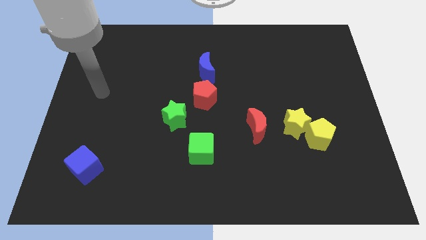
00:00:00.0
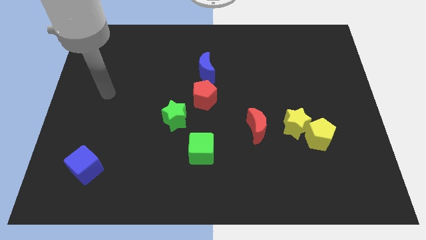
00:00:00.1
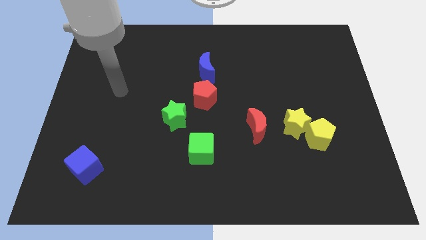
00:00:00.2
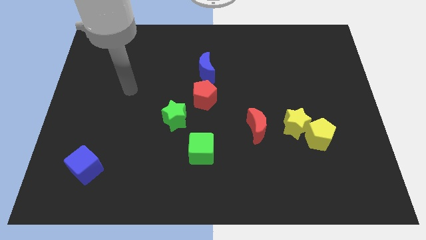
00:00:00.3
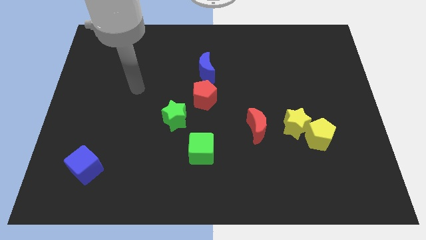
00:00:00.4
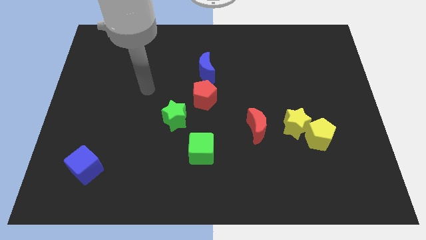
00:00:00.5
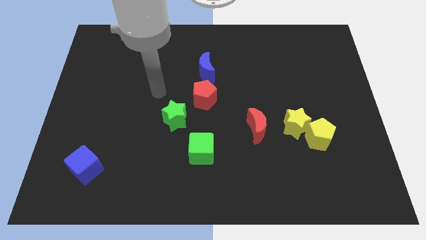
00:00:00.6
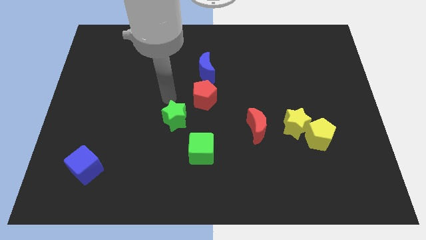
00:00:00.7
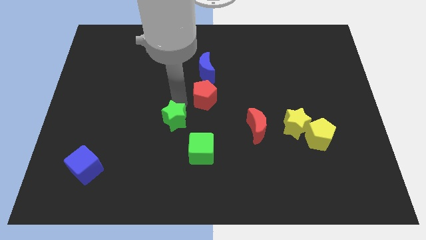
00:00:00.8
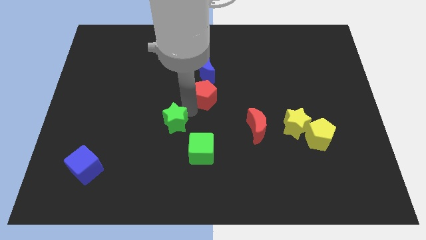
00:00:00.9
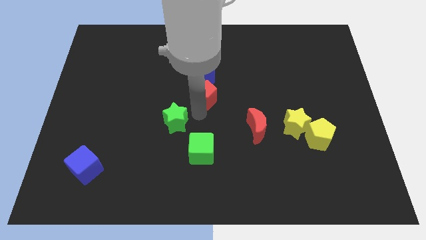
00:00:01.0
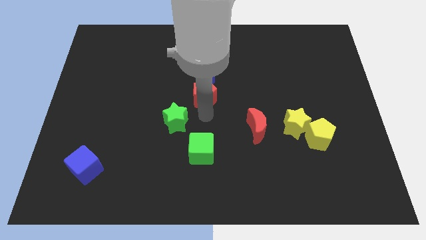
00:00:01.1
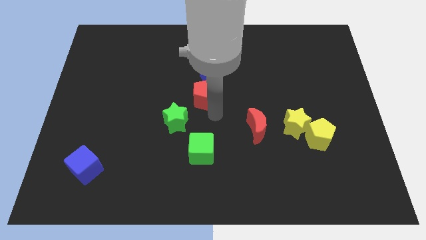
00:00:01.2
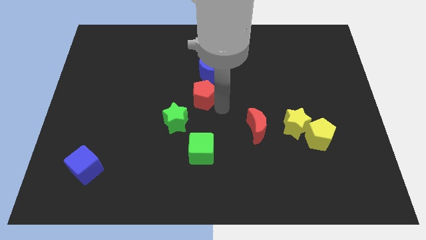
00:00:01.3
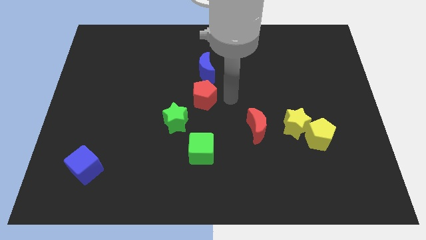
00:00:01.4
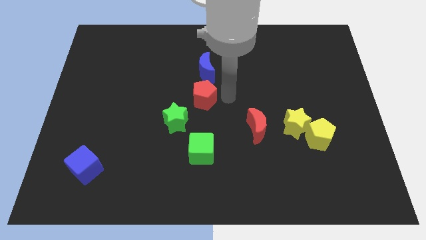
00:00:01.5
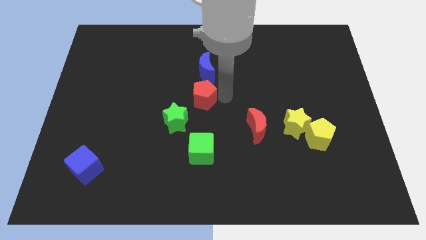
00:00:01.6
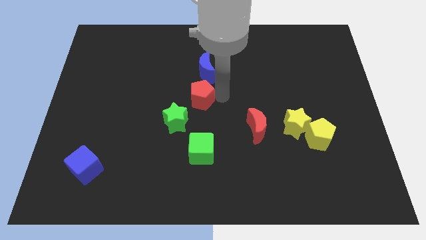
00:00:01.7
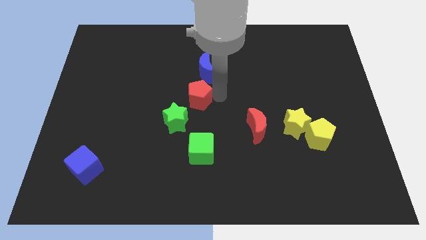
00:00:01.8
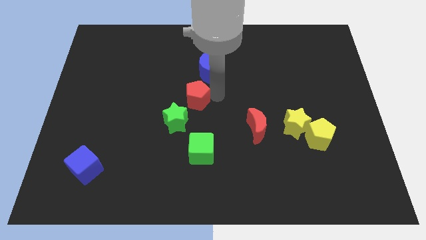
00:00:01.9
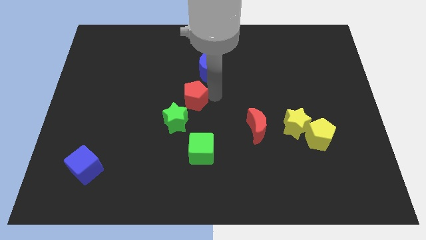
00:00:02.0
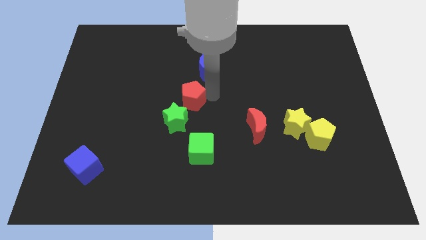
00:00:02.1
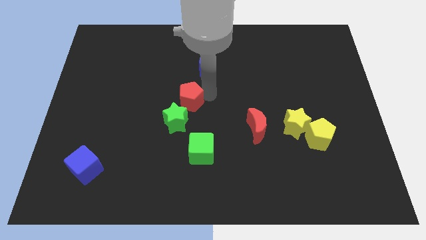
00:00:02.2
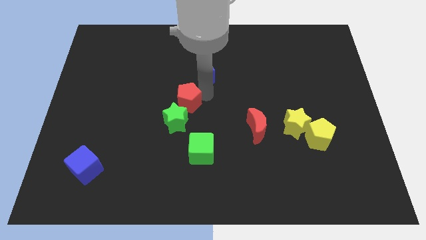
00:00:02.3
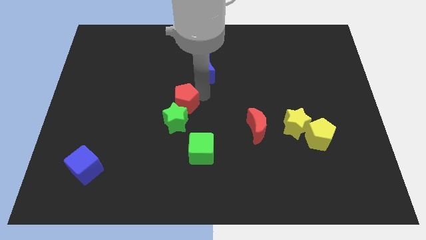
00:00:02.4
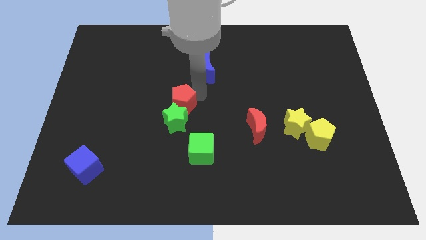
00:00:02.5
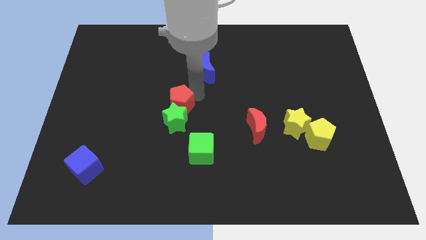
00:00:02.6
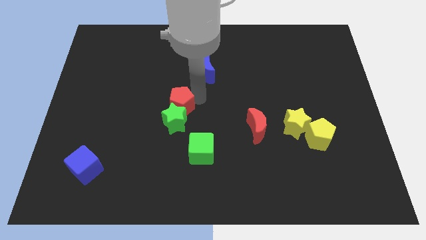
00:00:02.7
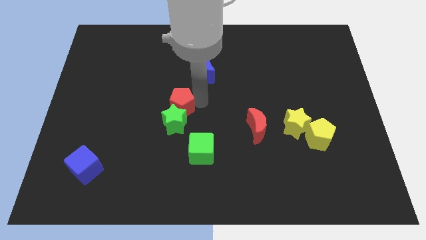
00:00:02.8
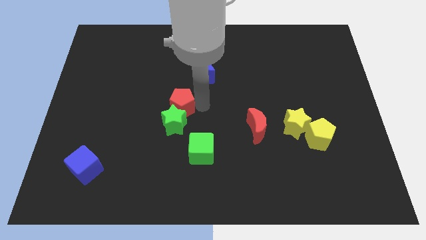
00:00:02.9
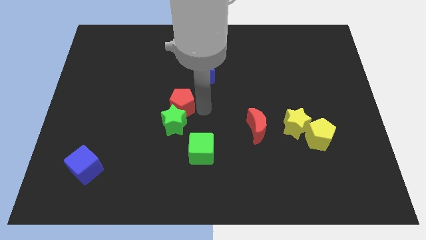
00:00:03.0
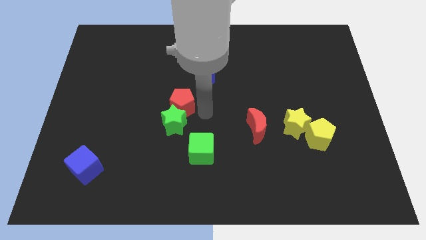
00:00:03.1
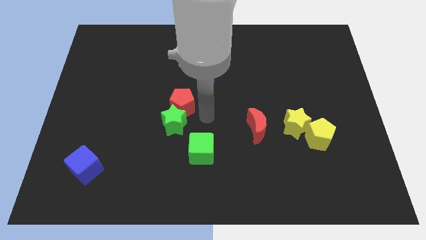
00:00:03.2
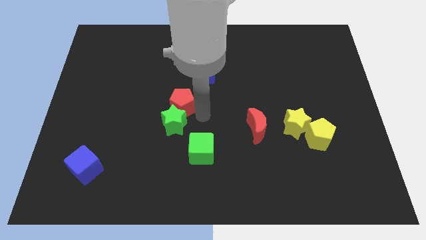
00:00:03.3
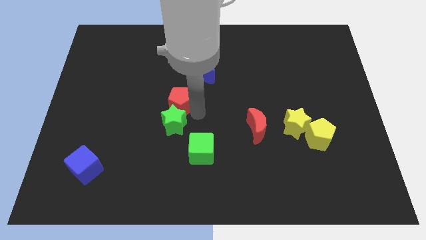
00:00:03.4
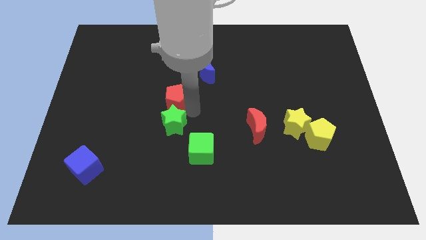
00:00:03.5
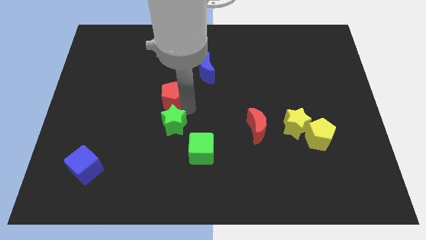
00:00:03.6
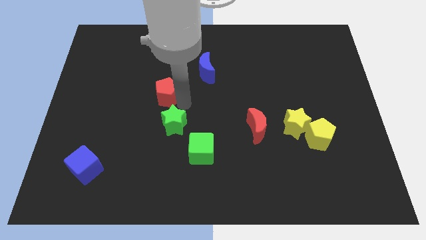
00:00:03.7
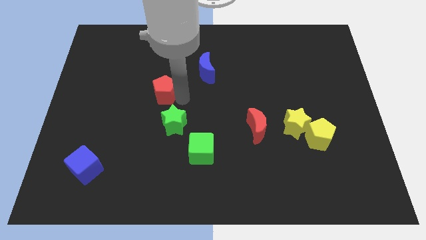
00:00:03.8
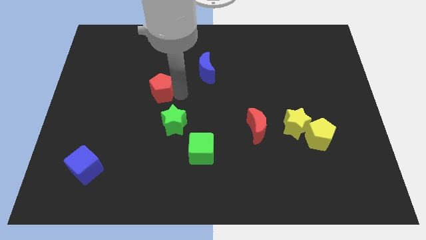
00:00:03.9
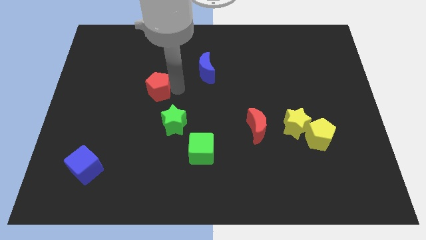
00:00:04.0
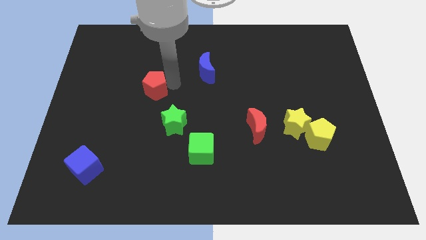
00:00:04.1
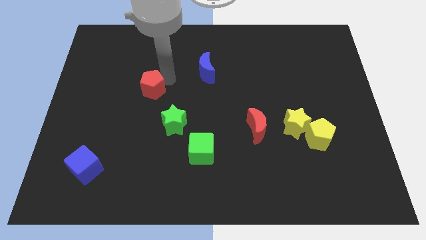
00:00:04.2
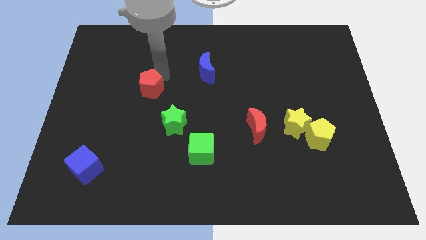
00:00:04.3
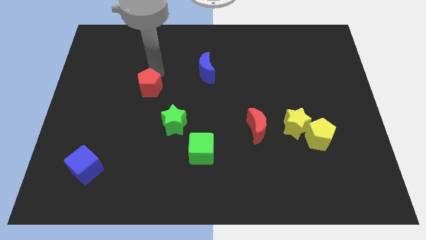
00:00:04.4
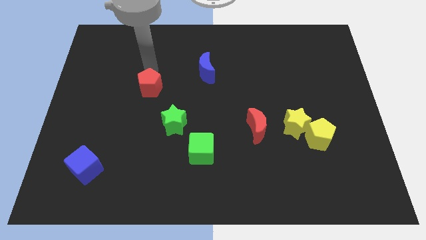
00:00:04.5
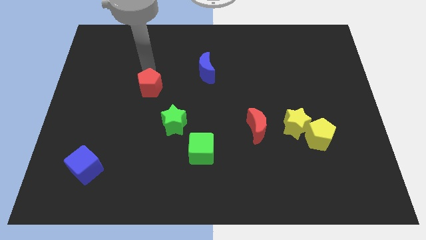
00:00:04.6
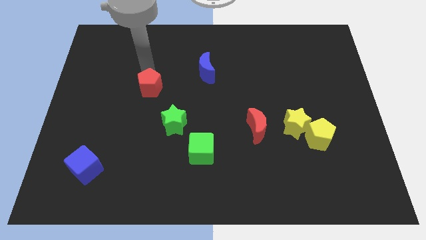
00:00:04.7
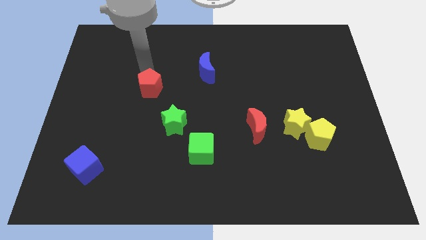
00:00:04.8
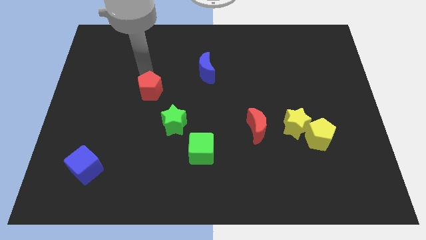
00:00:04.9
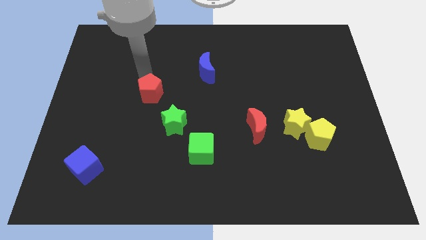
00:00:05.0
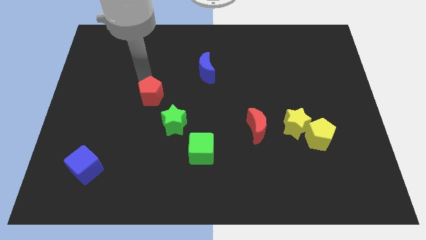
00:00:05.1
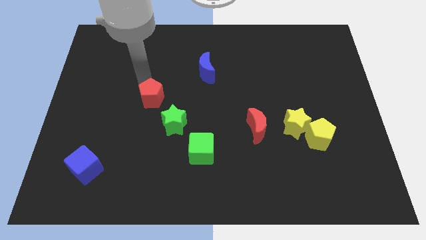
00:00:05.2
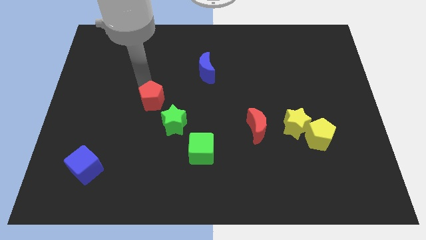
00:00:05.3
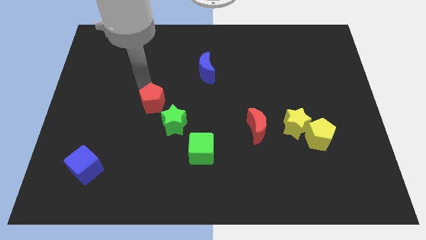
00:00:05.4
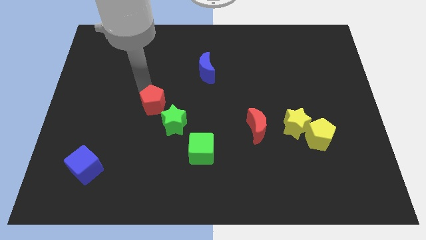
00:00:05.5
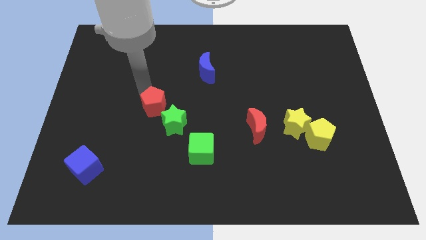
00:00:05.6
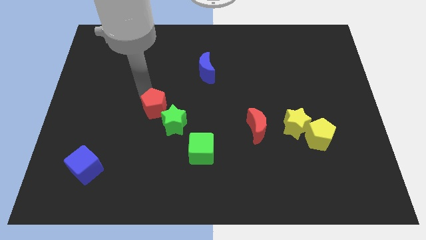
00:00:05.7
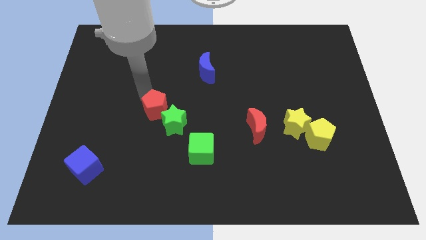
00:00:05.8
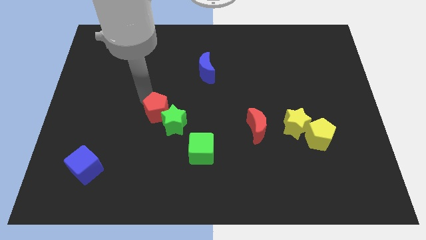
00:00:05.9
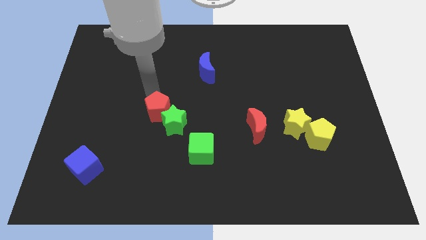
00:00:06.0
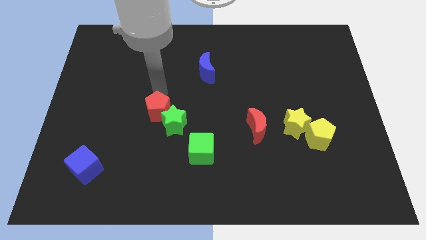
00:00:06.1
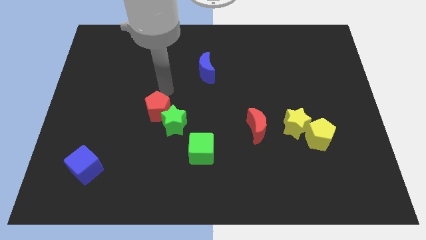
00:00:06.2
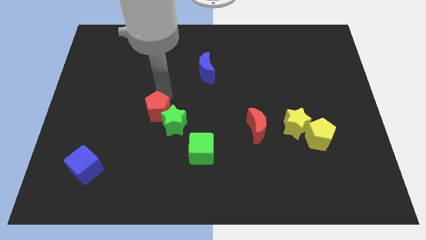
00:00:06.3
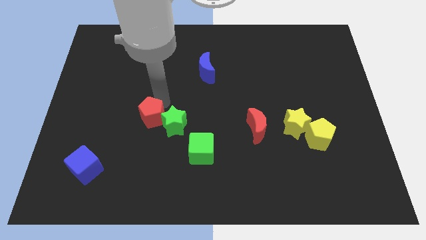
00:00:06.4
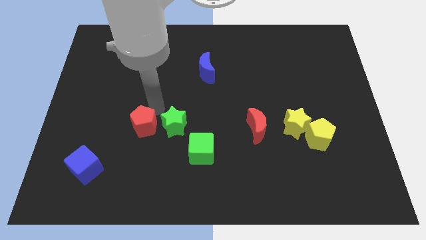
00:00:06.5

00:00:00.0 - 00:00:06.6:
push the red pentagon diagonally down and to the left of the green star
